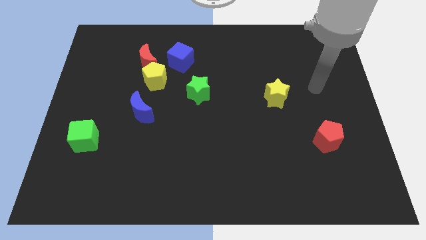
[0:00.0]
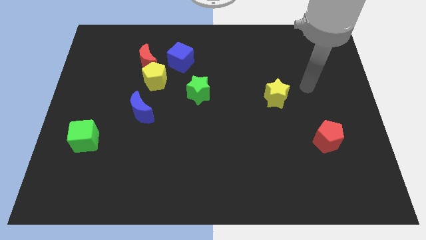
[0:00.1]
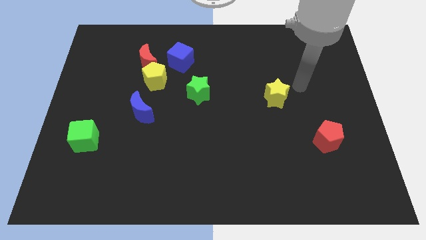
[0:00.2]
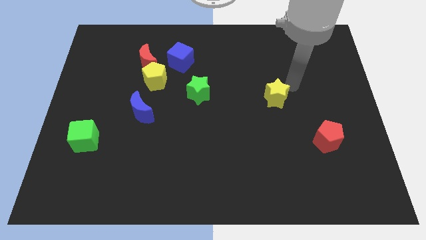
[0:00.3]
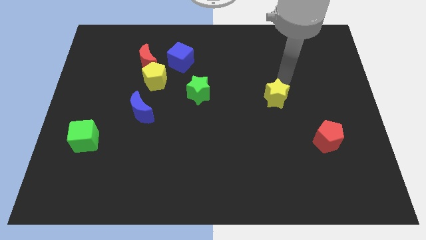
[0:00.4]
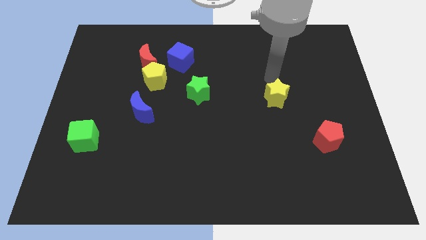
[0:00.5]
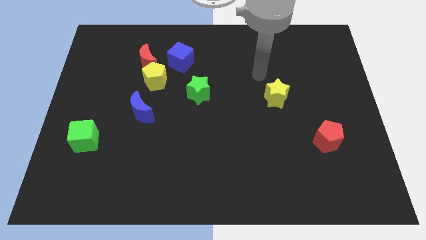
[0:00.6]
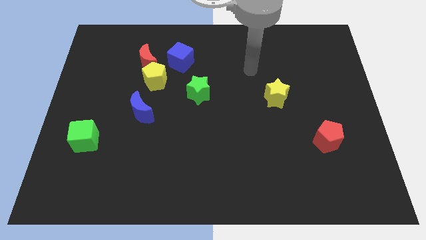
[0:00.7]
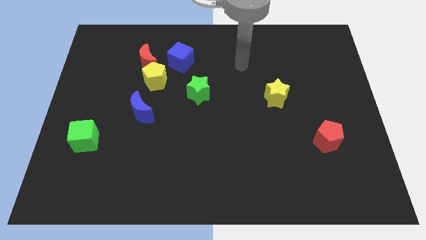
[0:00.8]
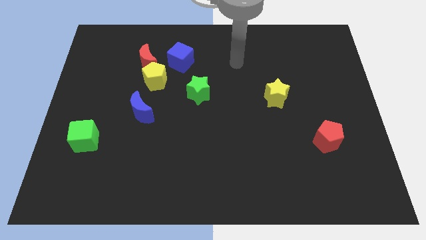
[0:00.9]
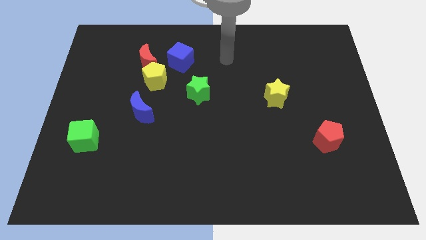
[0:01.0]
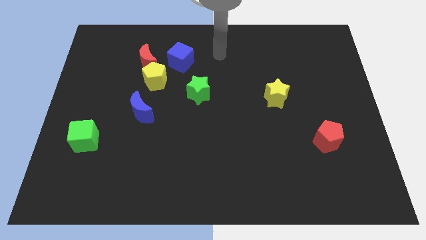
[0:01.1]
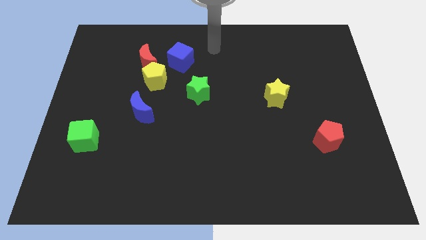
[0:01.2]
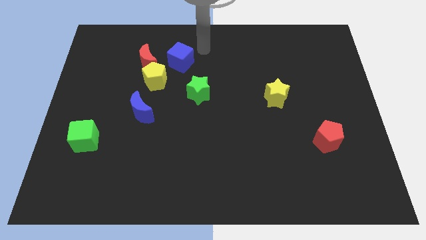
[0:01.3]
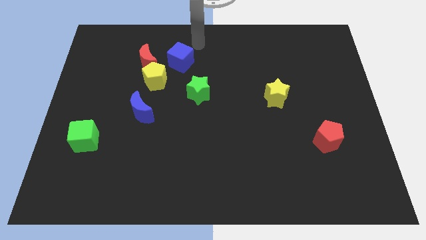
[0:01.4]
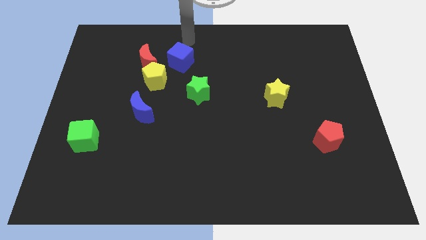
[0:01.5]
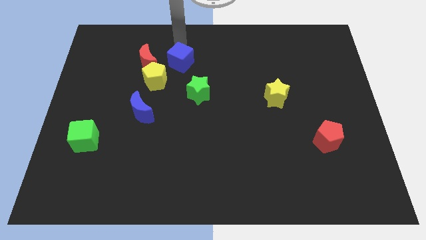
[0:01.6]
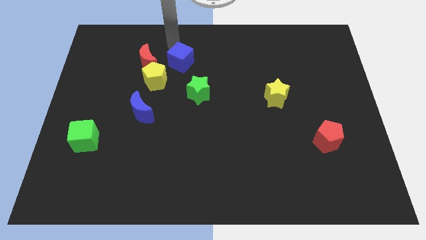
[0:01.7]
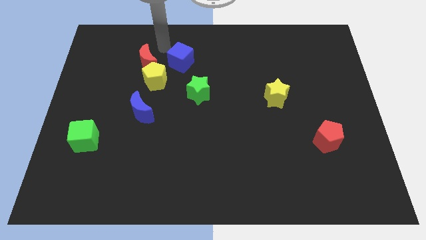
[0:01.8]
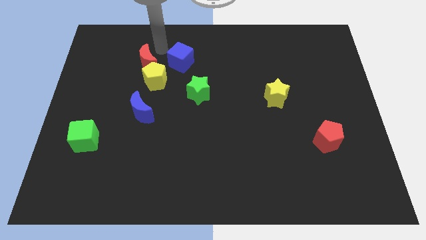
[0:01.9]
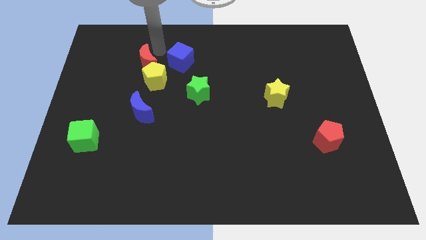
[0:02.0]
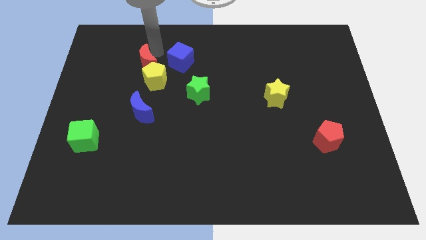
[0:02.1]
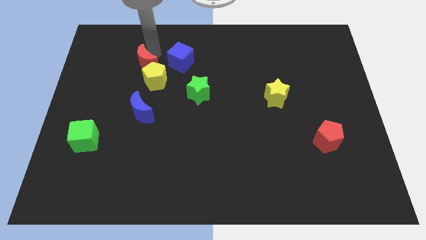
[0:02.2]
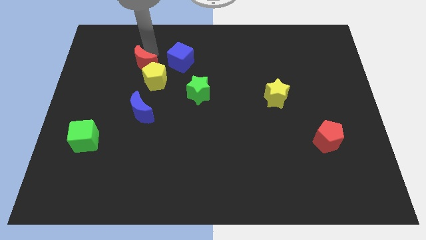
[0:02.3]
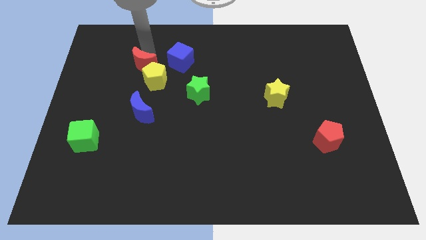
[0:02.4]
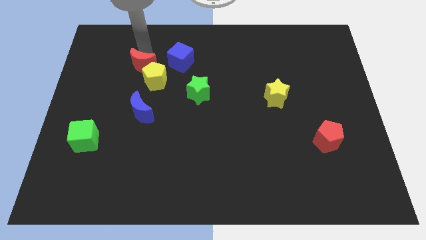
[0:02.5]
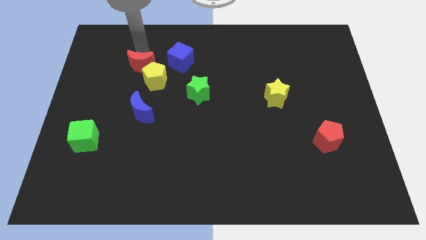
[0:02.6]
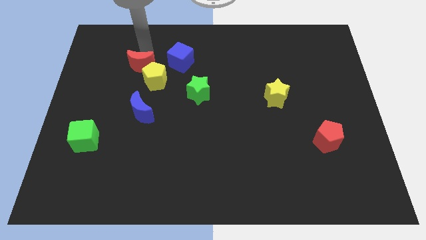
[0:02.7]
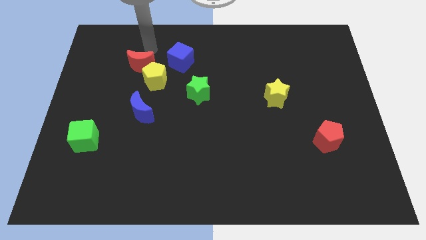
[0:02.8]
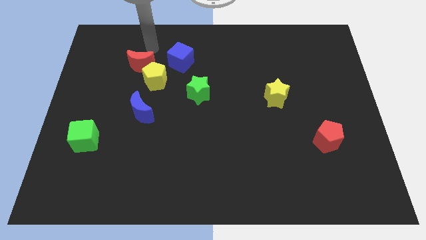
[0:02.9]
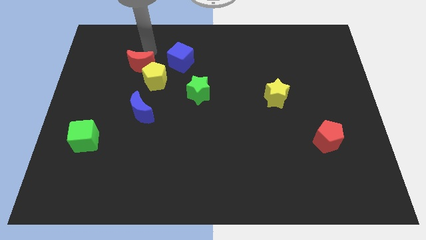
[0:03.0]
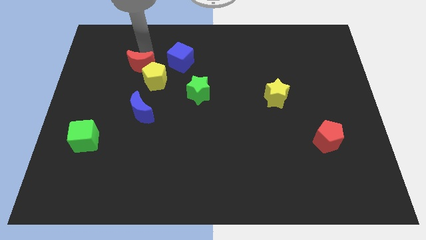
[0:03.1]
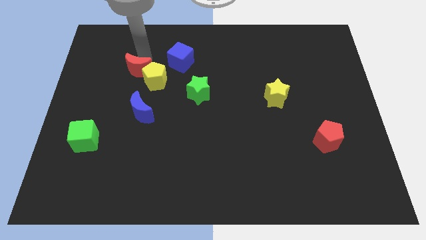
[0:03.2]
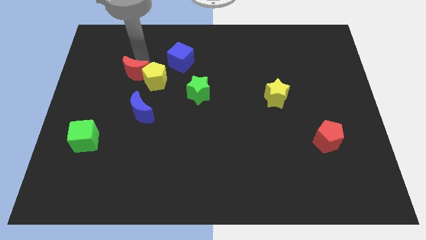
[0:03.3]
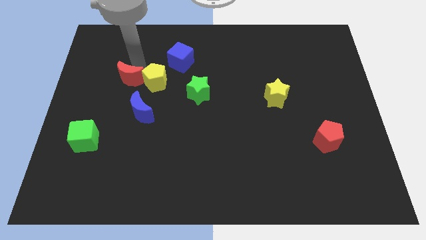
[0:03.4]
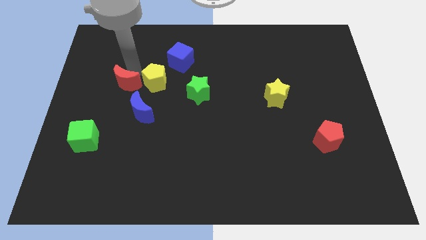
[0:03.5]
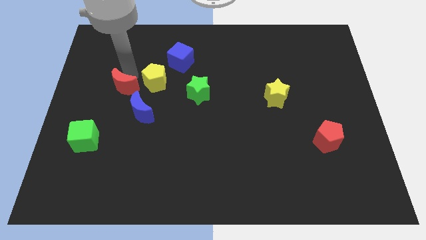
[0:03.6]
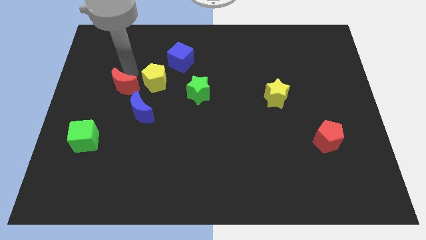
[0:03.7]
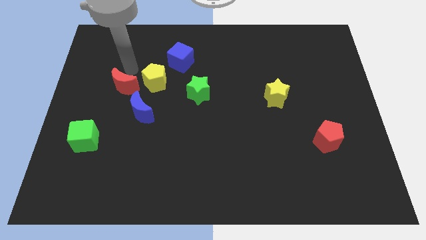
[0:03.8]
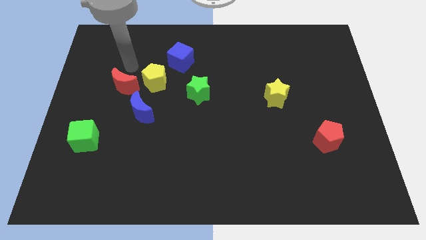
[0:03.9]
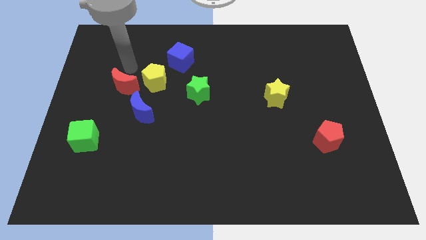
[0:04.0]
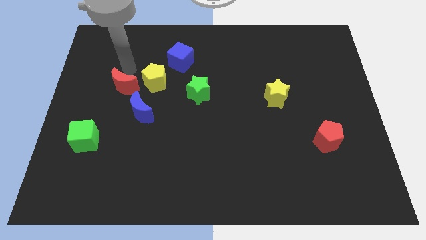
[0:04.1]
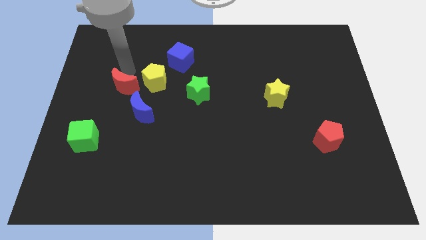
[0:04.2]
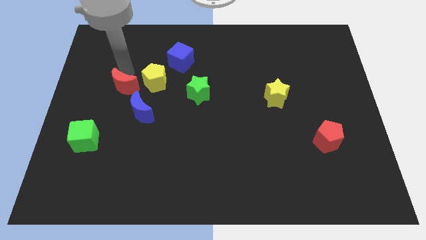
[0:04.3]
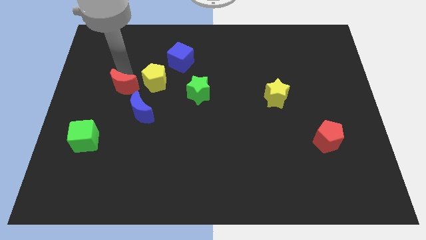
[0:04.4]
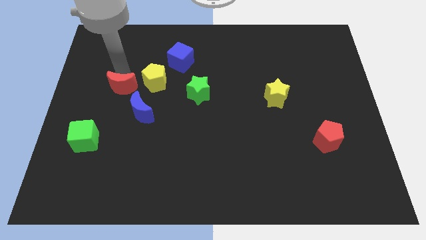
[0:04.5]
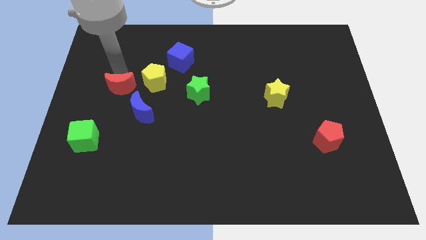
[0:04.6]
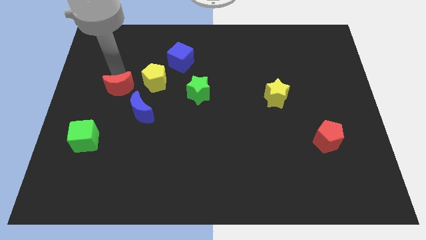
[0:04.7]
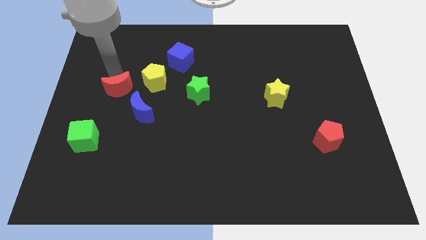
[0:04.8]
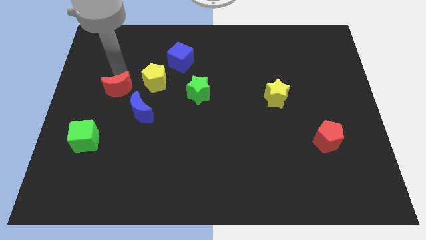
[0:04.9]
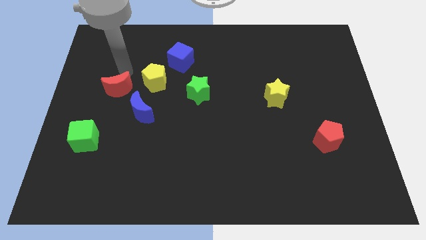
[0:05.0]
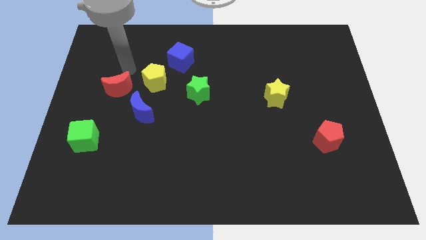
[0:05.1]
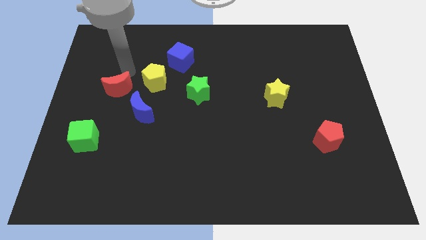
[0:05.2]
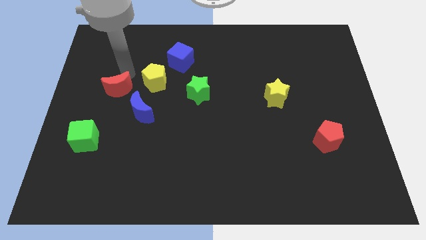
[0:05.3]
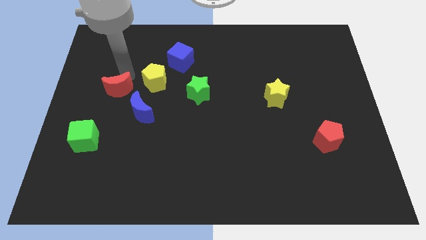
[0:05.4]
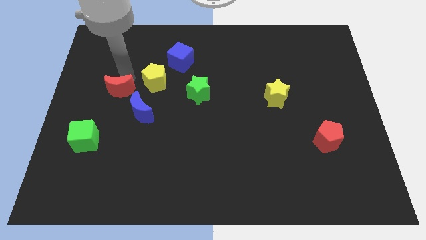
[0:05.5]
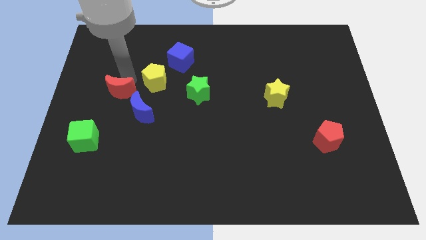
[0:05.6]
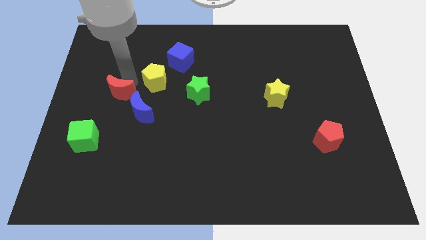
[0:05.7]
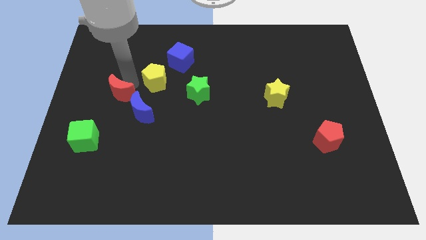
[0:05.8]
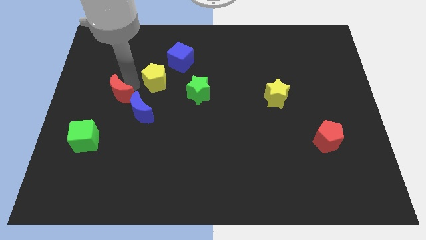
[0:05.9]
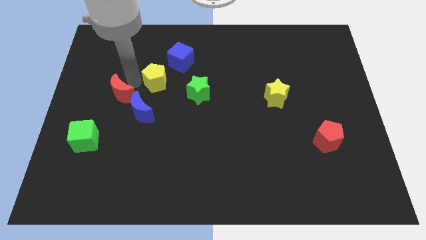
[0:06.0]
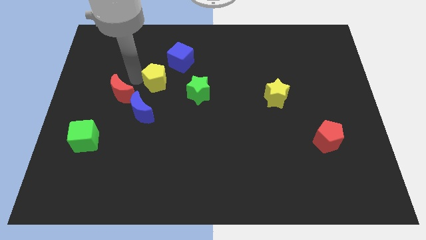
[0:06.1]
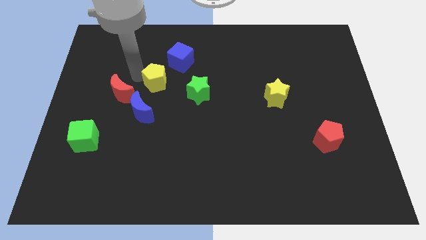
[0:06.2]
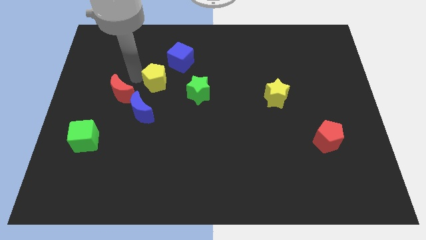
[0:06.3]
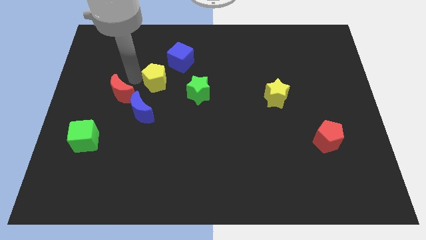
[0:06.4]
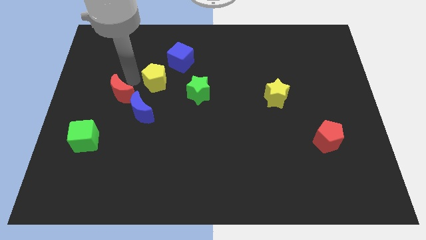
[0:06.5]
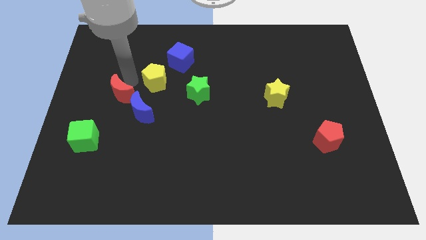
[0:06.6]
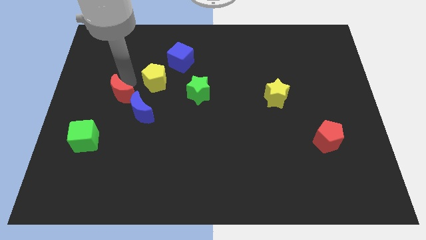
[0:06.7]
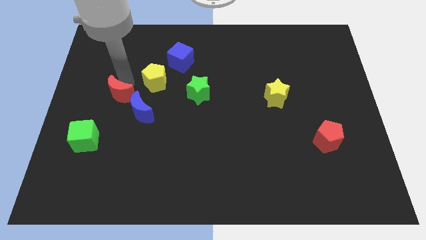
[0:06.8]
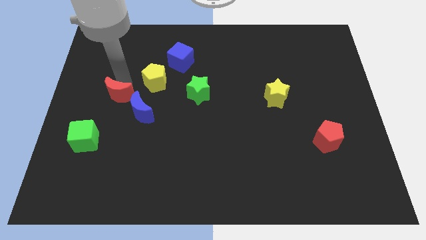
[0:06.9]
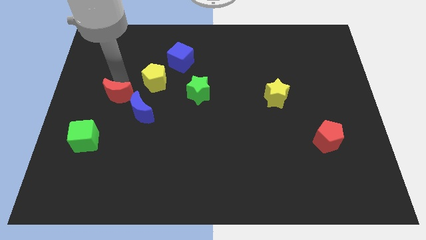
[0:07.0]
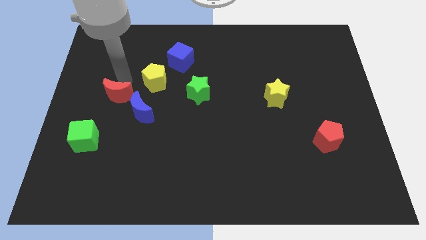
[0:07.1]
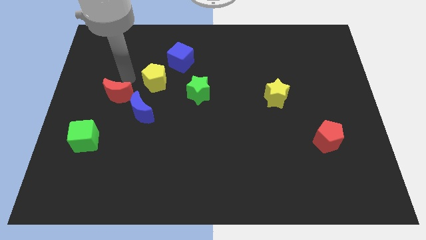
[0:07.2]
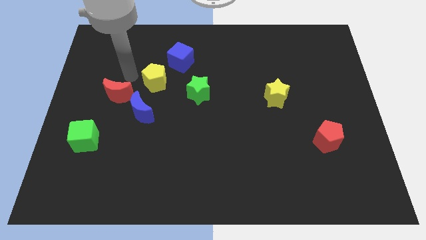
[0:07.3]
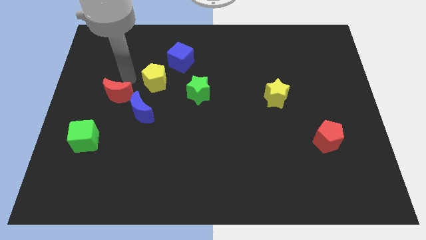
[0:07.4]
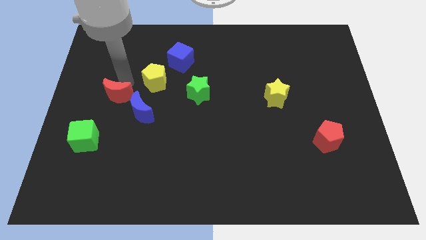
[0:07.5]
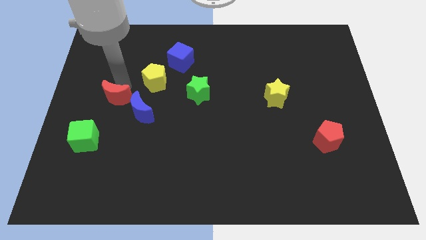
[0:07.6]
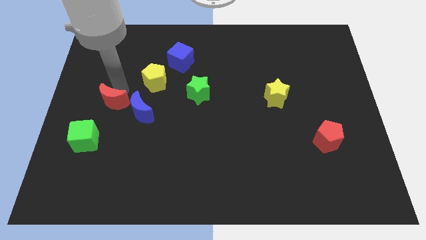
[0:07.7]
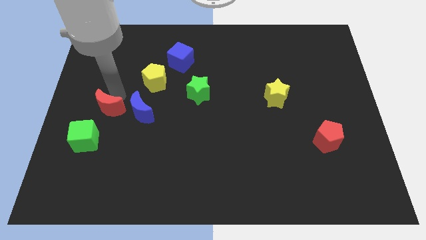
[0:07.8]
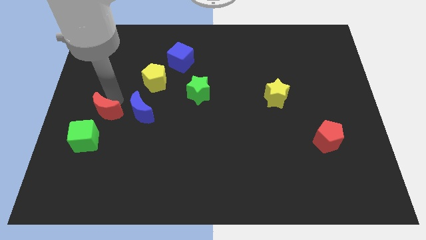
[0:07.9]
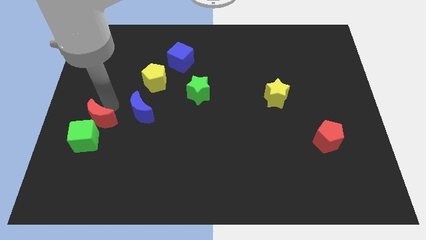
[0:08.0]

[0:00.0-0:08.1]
slide the red moon next to the green cube
